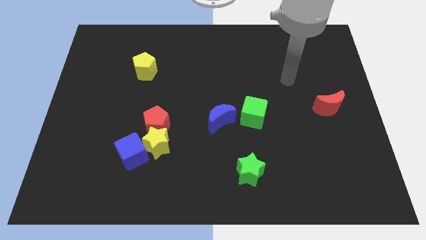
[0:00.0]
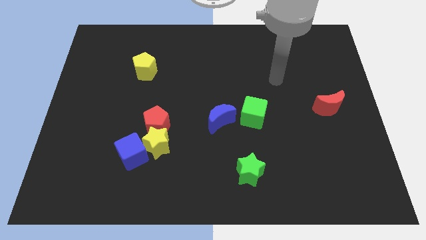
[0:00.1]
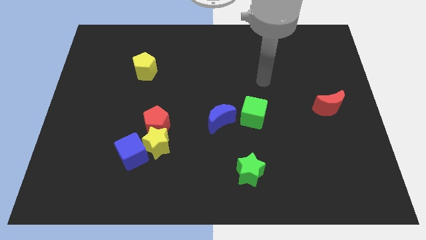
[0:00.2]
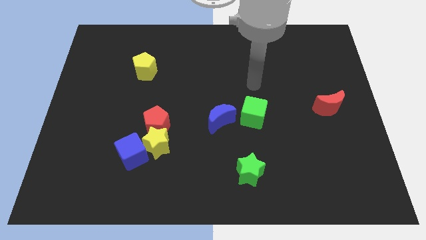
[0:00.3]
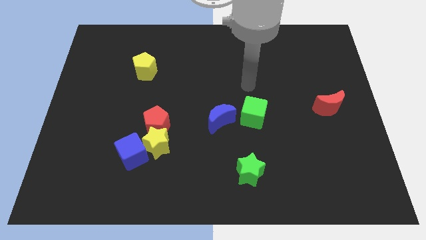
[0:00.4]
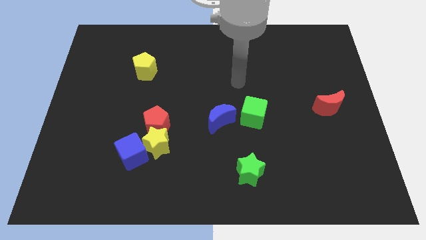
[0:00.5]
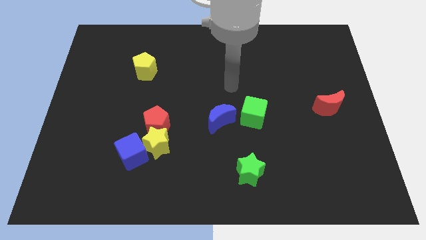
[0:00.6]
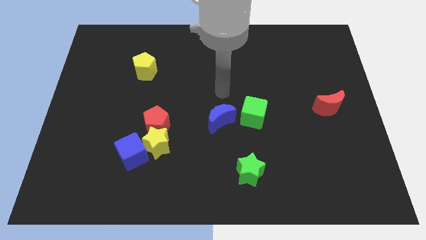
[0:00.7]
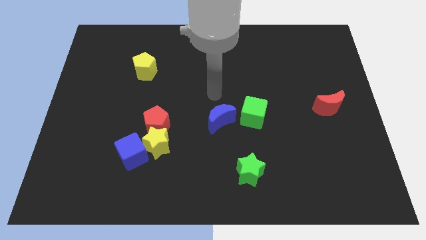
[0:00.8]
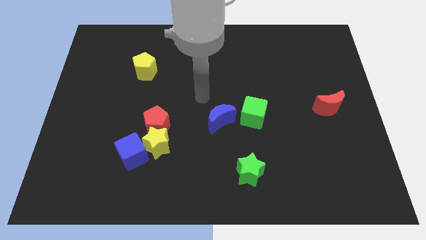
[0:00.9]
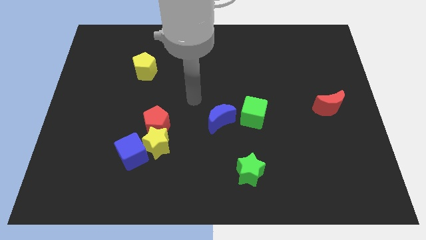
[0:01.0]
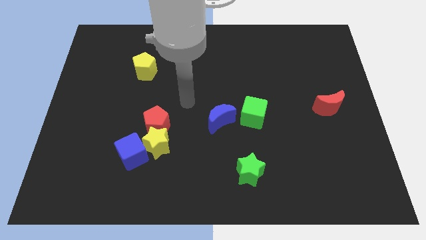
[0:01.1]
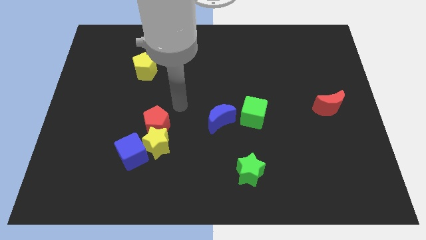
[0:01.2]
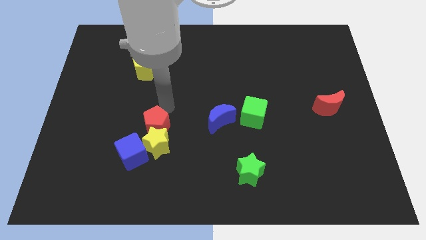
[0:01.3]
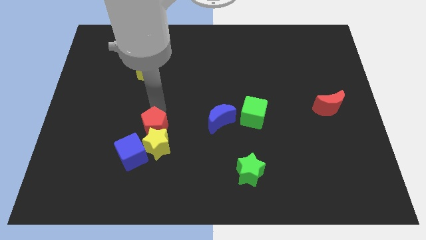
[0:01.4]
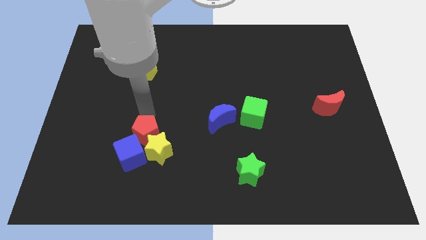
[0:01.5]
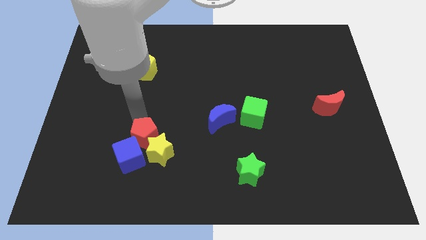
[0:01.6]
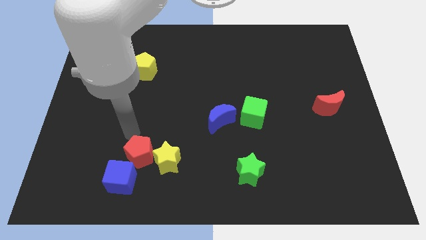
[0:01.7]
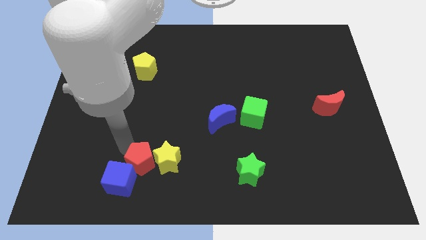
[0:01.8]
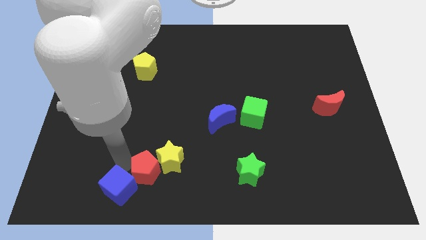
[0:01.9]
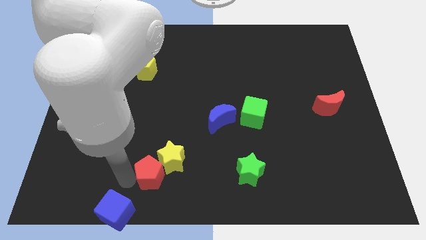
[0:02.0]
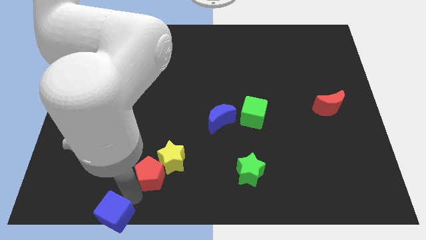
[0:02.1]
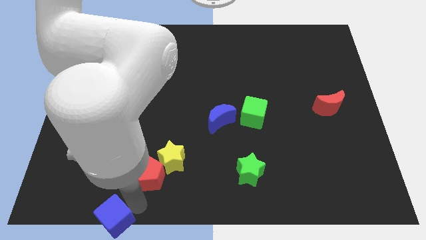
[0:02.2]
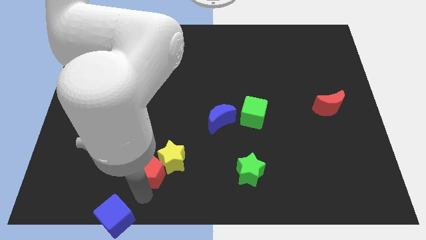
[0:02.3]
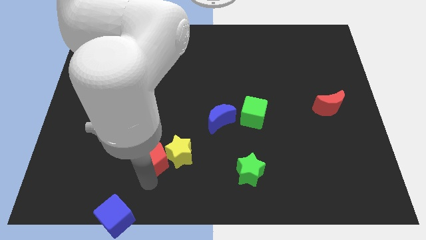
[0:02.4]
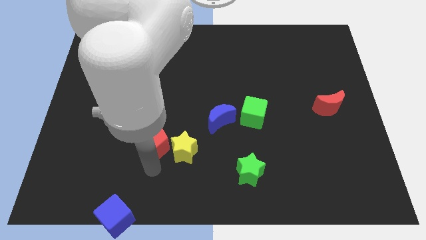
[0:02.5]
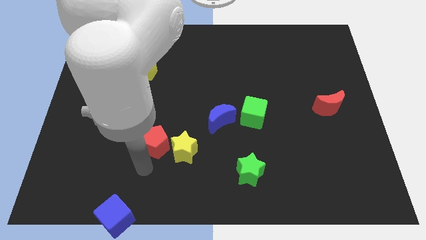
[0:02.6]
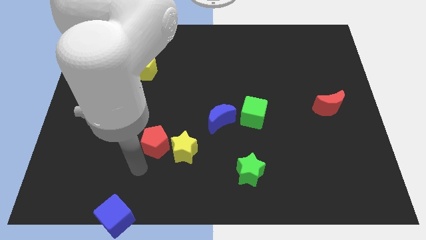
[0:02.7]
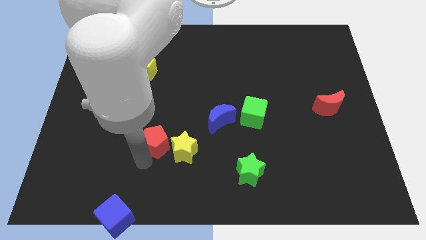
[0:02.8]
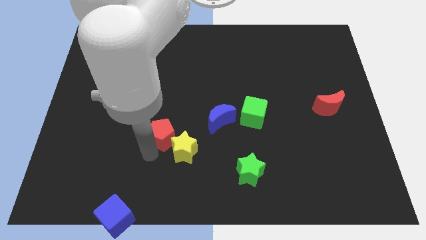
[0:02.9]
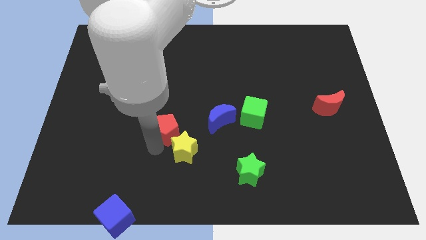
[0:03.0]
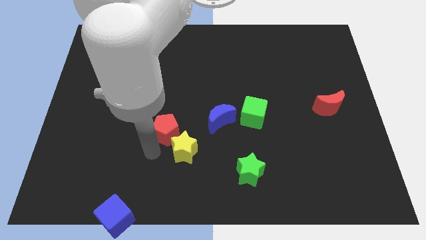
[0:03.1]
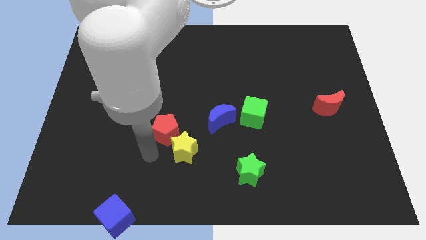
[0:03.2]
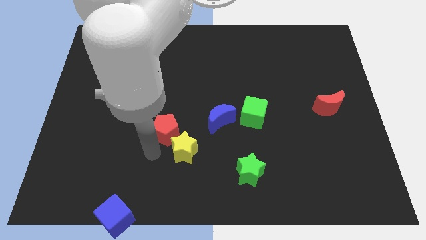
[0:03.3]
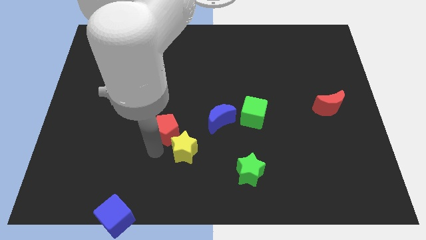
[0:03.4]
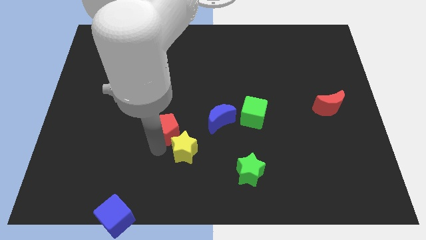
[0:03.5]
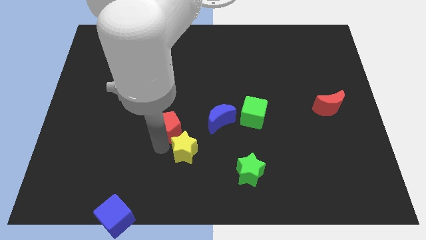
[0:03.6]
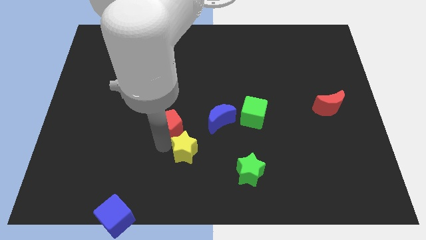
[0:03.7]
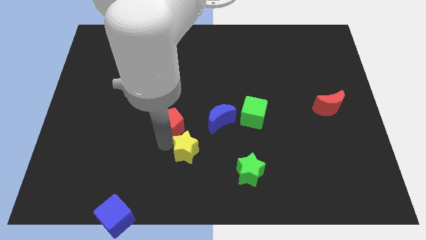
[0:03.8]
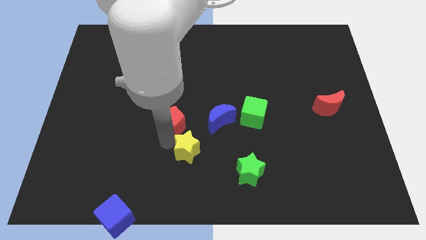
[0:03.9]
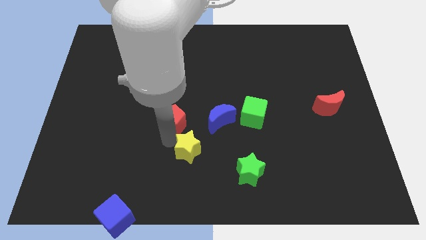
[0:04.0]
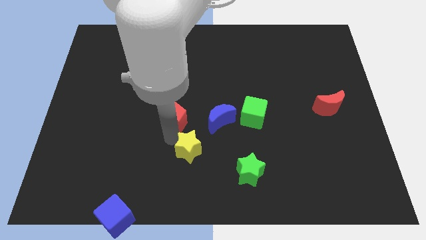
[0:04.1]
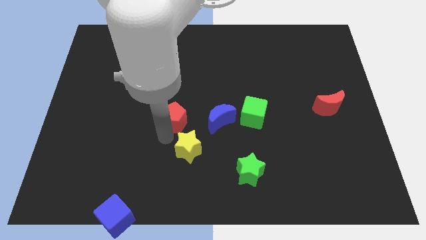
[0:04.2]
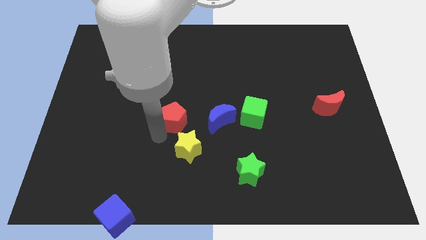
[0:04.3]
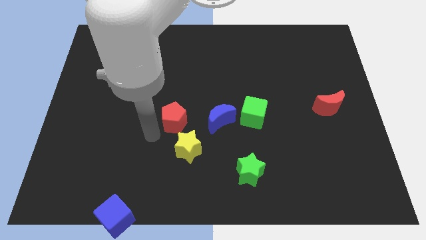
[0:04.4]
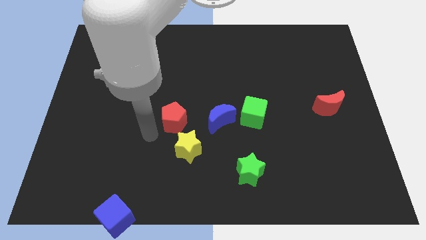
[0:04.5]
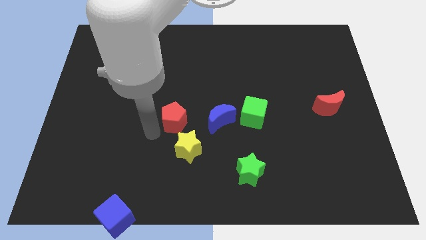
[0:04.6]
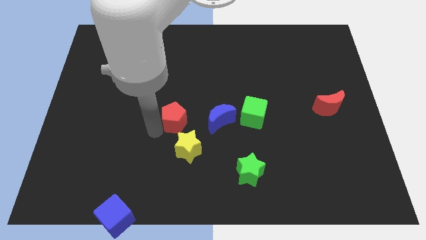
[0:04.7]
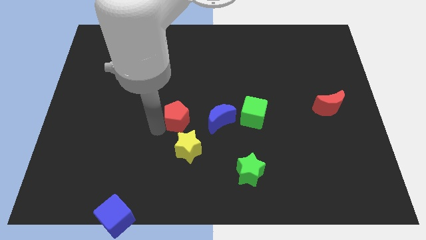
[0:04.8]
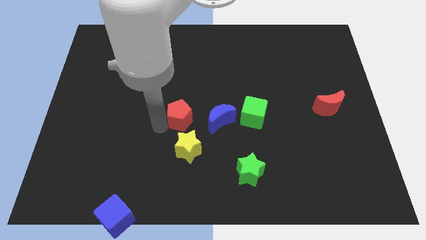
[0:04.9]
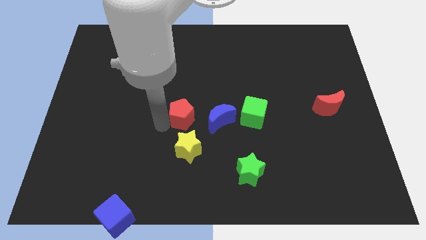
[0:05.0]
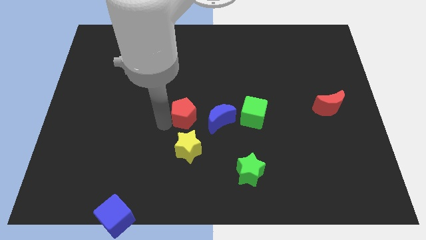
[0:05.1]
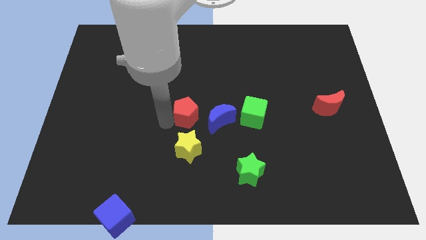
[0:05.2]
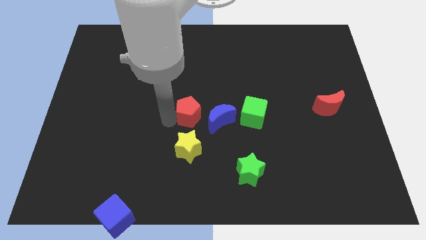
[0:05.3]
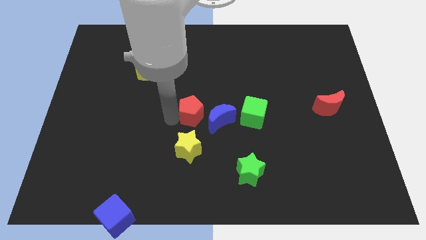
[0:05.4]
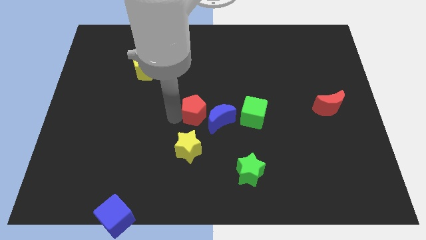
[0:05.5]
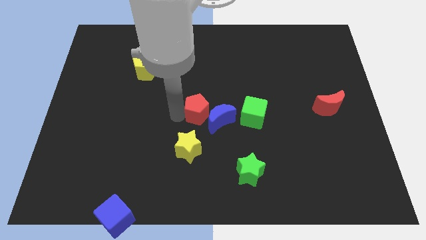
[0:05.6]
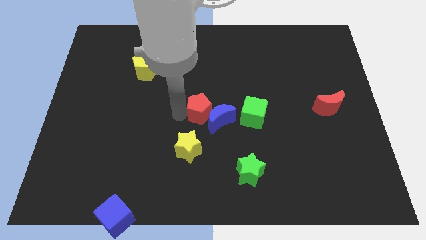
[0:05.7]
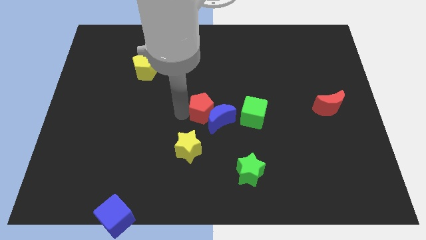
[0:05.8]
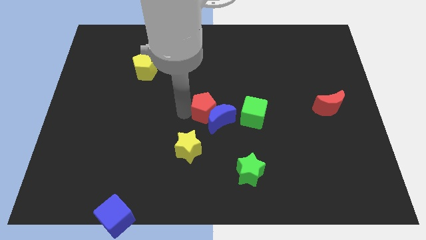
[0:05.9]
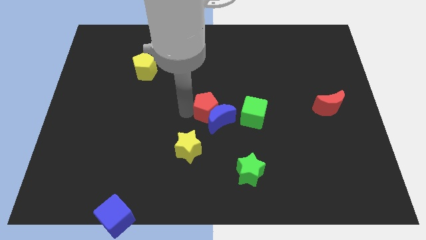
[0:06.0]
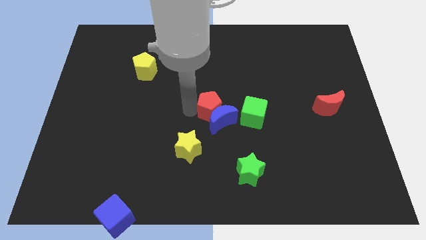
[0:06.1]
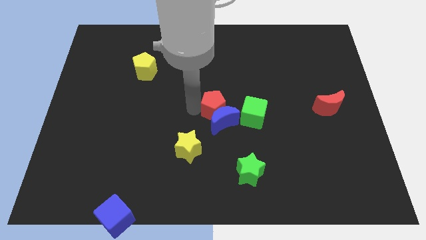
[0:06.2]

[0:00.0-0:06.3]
slide the red pentagon diagonally up and to the right of the blue moon
